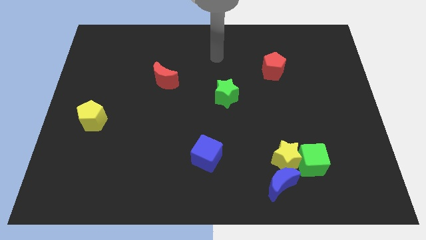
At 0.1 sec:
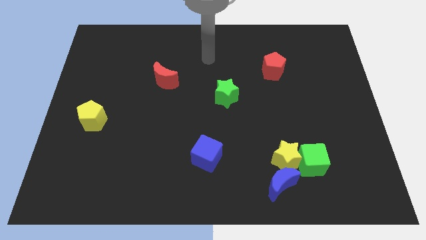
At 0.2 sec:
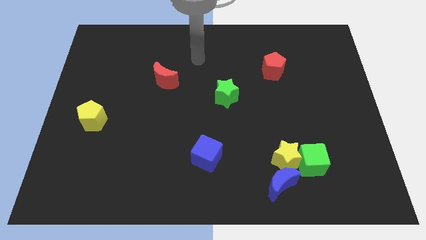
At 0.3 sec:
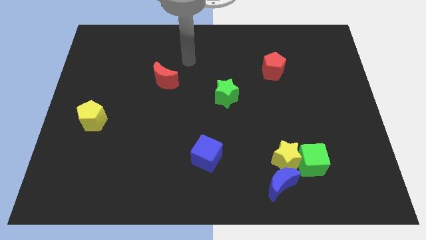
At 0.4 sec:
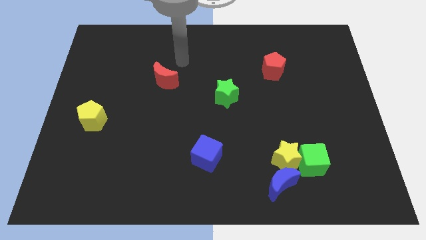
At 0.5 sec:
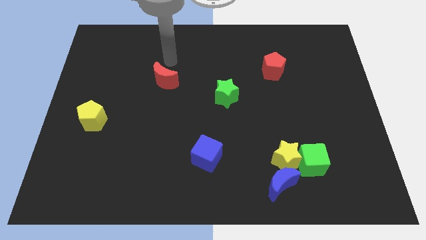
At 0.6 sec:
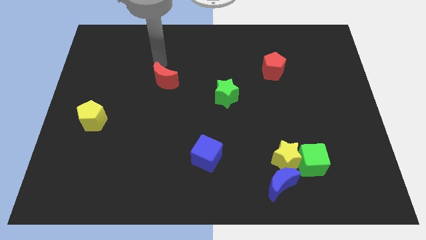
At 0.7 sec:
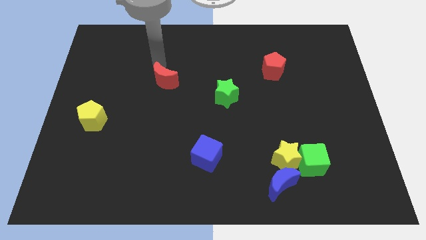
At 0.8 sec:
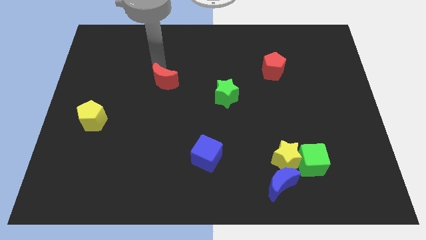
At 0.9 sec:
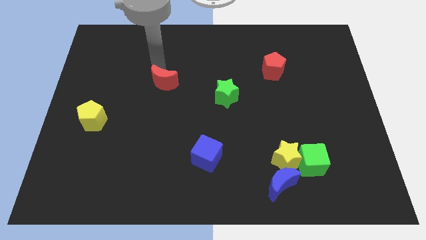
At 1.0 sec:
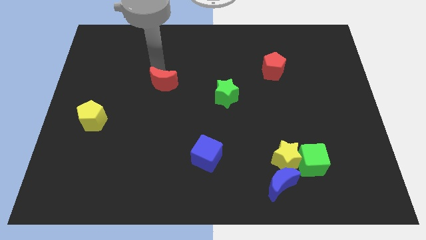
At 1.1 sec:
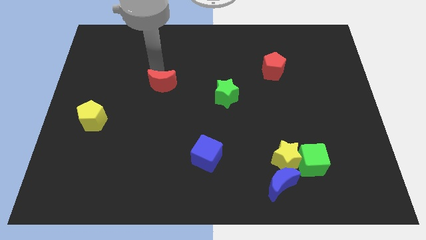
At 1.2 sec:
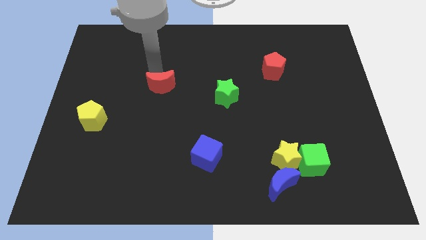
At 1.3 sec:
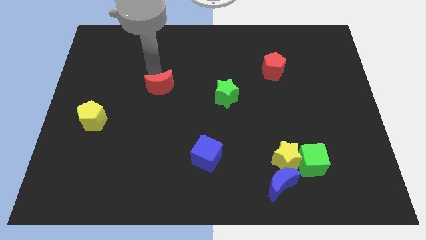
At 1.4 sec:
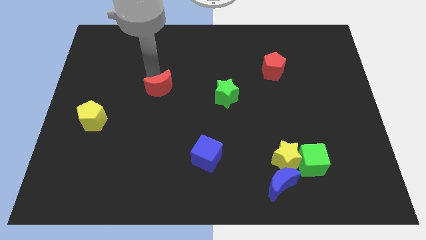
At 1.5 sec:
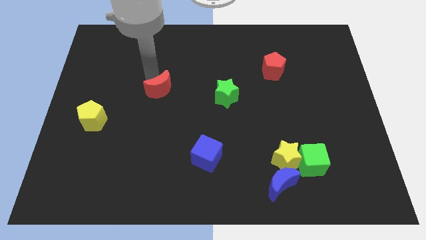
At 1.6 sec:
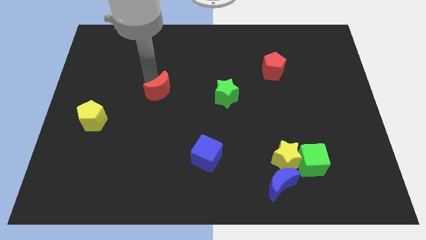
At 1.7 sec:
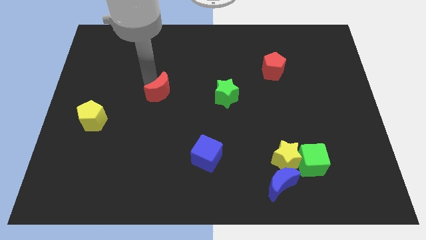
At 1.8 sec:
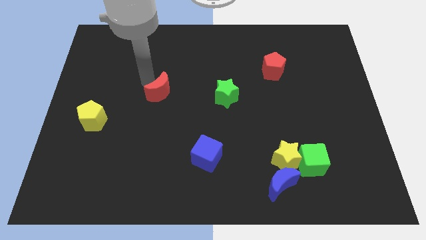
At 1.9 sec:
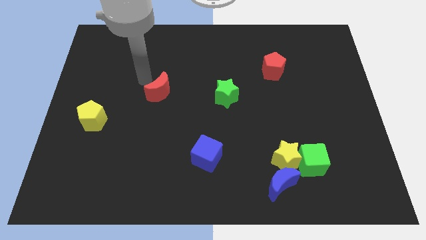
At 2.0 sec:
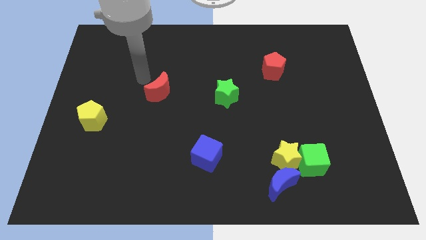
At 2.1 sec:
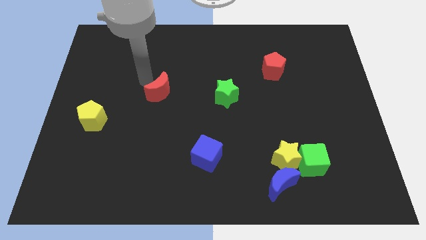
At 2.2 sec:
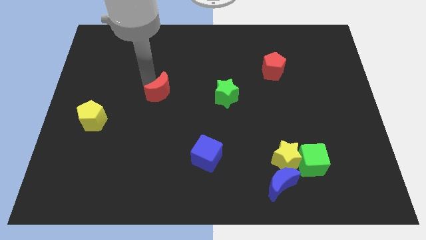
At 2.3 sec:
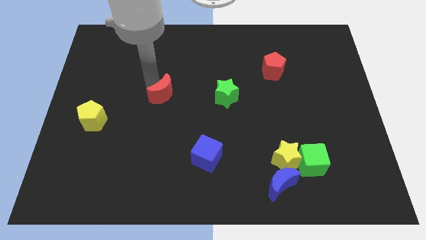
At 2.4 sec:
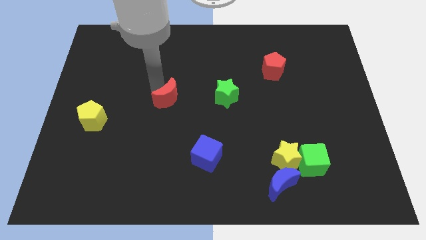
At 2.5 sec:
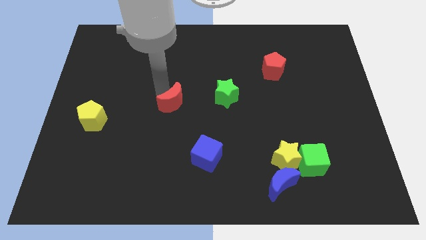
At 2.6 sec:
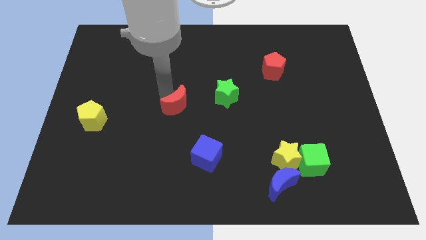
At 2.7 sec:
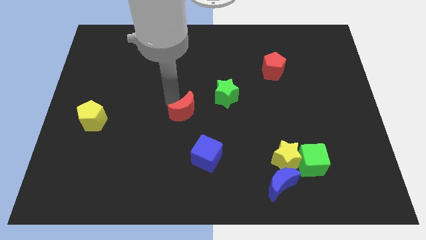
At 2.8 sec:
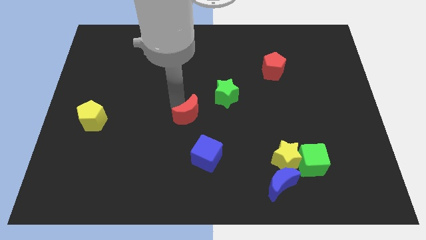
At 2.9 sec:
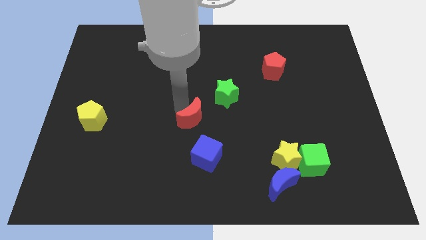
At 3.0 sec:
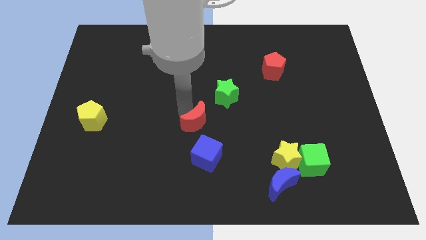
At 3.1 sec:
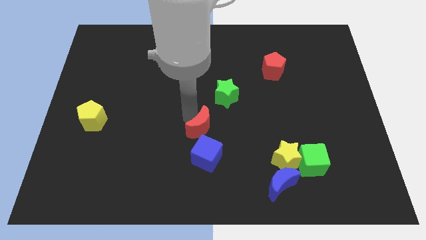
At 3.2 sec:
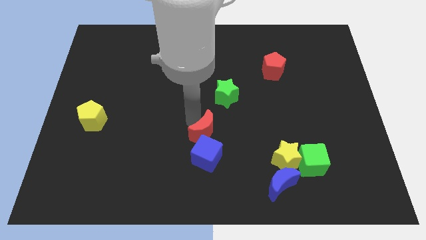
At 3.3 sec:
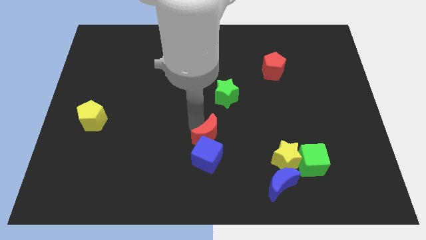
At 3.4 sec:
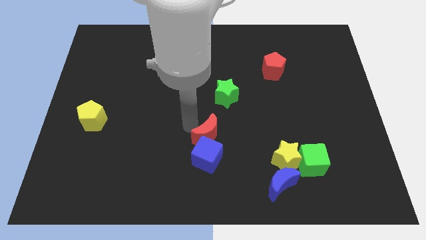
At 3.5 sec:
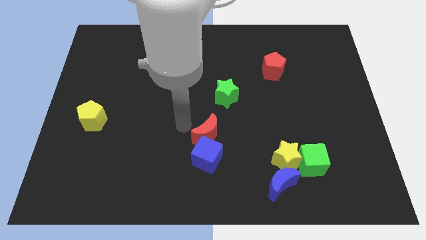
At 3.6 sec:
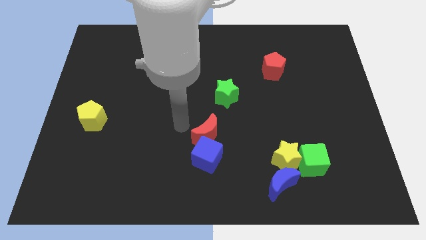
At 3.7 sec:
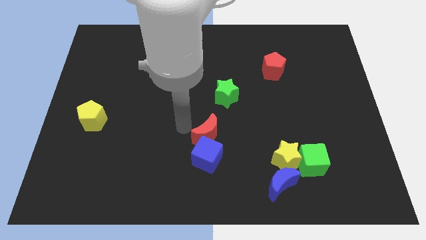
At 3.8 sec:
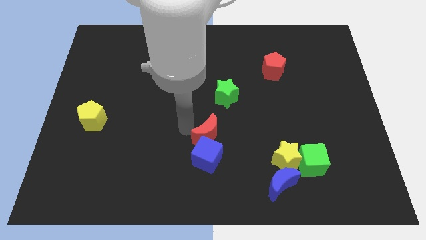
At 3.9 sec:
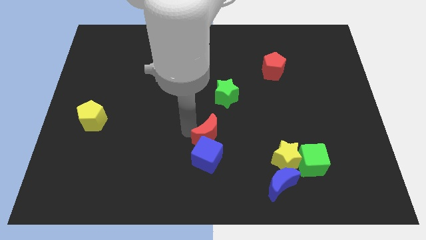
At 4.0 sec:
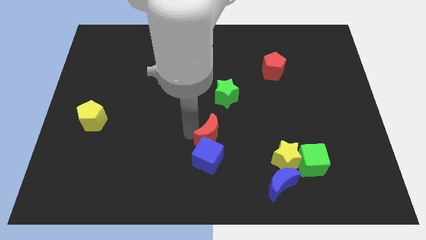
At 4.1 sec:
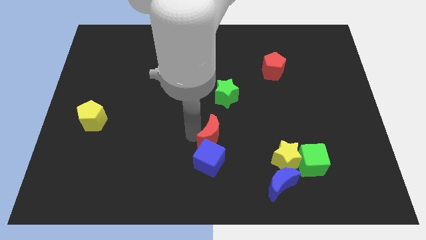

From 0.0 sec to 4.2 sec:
move the red moon down and then right

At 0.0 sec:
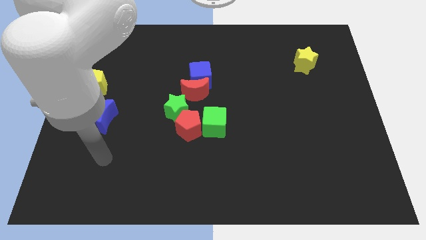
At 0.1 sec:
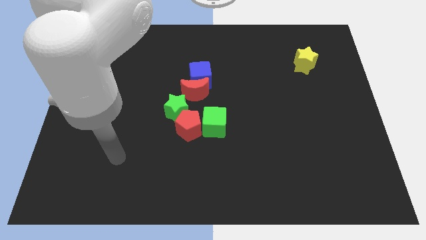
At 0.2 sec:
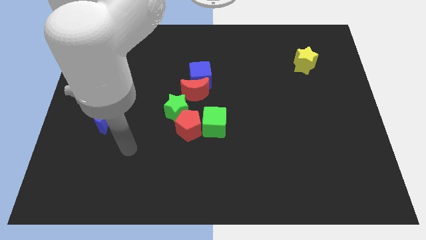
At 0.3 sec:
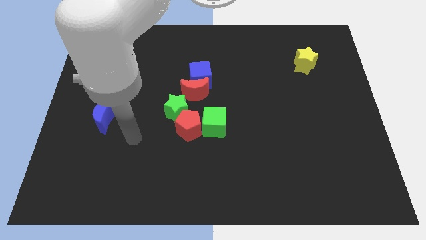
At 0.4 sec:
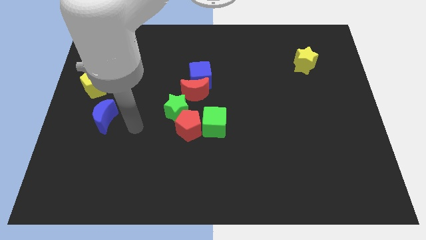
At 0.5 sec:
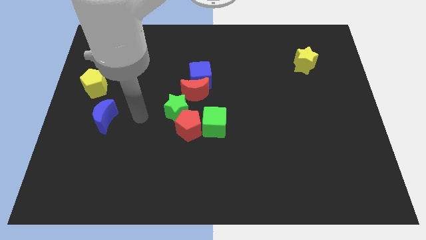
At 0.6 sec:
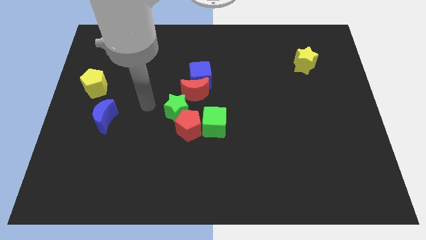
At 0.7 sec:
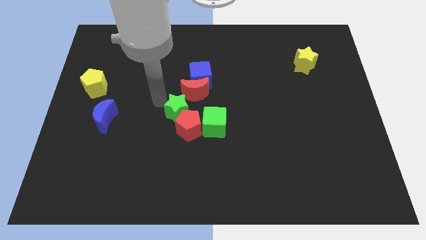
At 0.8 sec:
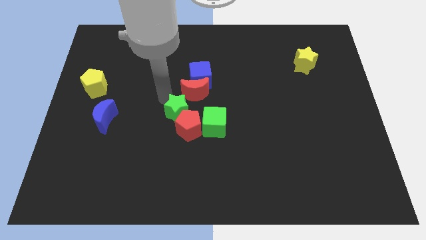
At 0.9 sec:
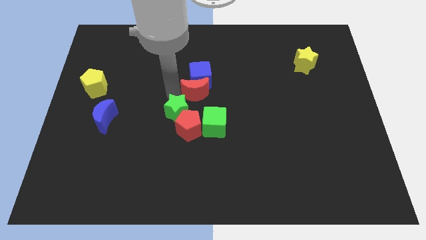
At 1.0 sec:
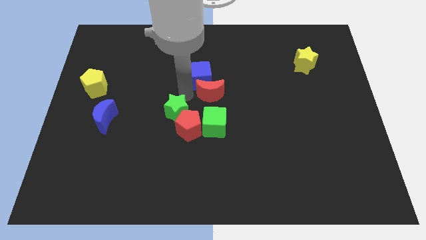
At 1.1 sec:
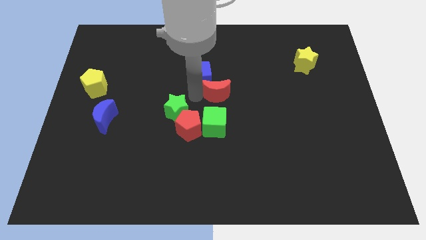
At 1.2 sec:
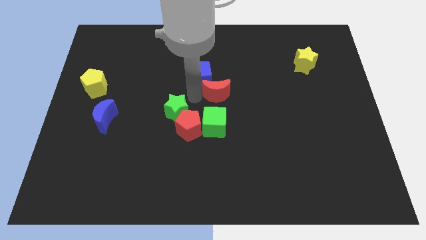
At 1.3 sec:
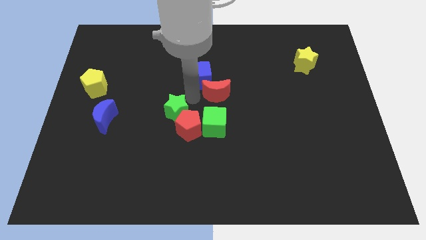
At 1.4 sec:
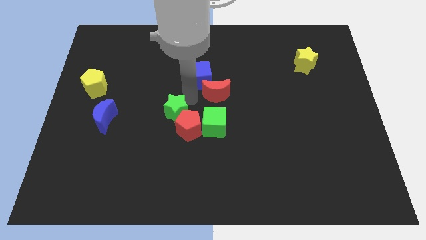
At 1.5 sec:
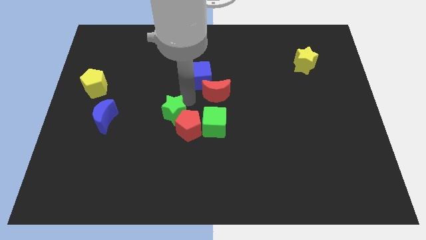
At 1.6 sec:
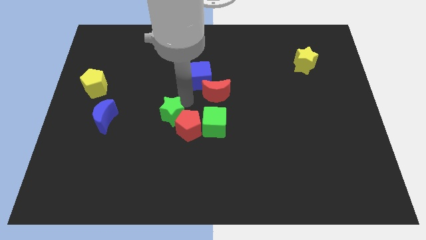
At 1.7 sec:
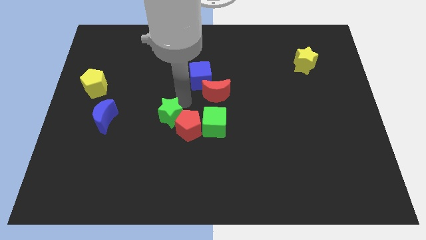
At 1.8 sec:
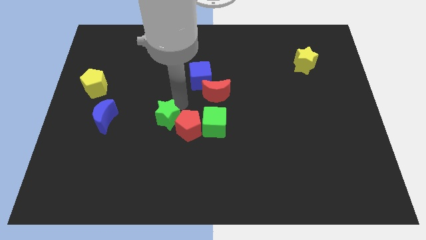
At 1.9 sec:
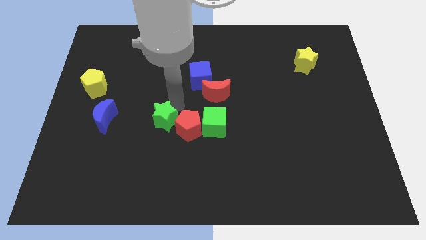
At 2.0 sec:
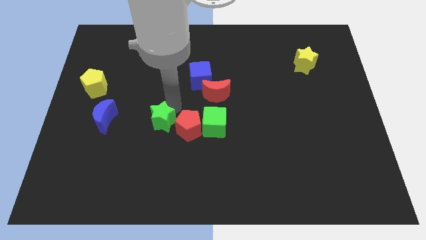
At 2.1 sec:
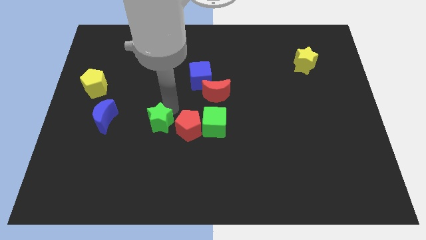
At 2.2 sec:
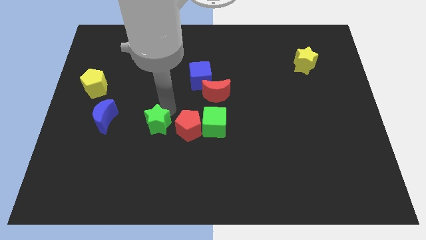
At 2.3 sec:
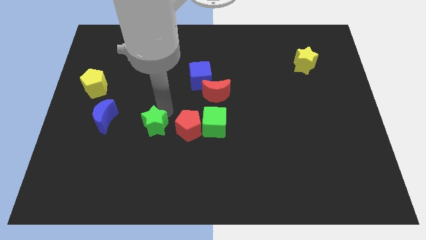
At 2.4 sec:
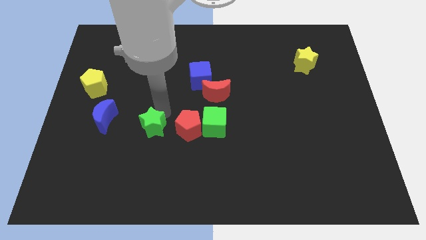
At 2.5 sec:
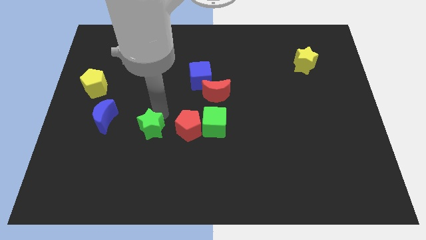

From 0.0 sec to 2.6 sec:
push the green star a bit diagonally down and left

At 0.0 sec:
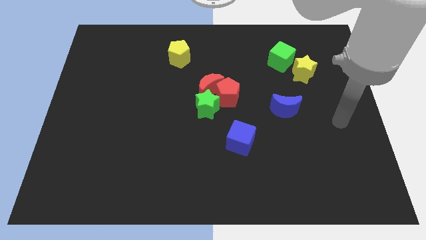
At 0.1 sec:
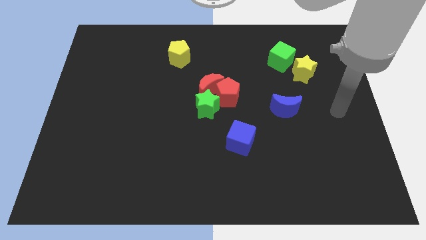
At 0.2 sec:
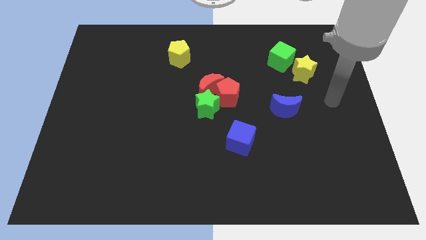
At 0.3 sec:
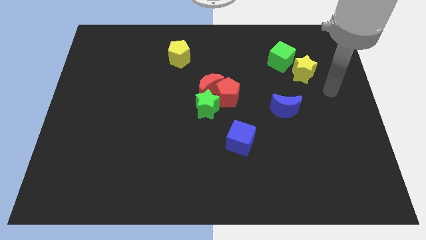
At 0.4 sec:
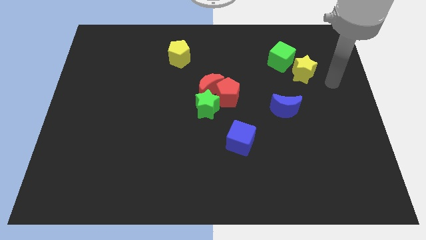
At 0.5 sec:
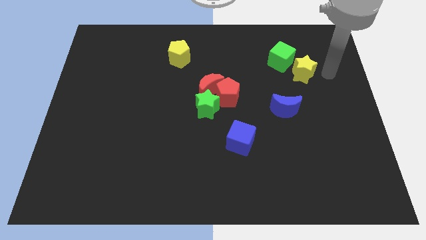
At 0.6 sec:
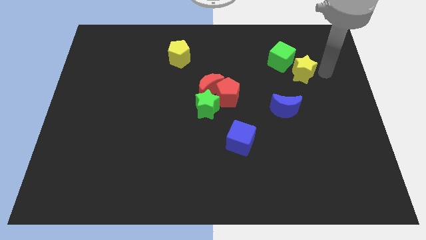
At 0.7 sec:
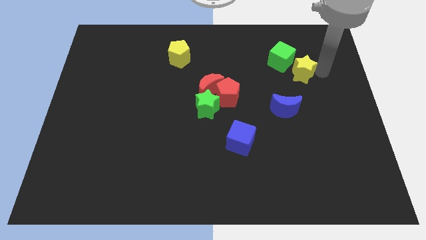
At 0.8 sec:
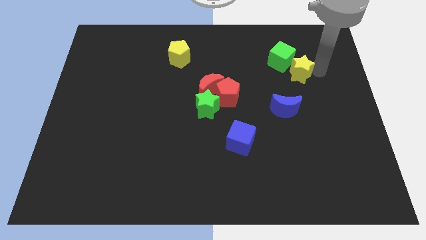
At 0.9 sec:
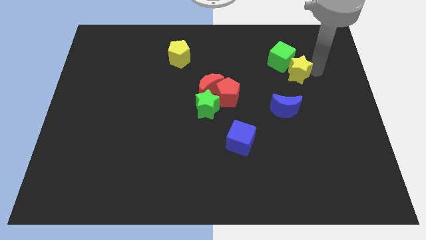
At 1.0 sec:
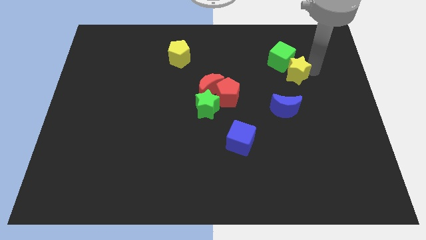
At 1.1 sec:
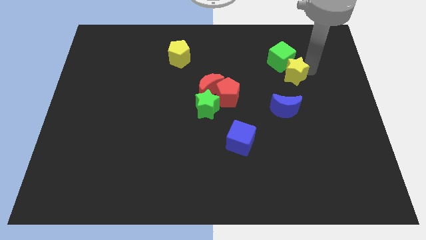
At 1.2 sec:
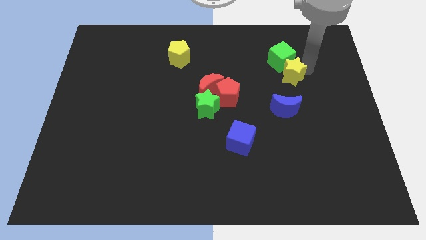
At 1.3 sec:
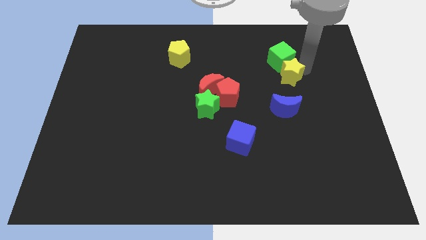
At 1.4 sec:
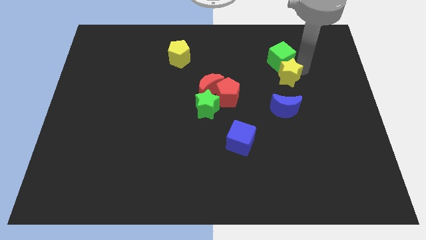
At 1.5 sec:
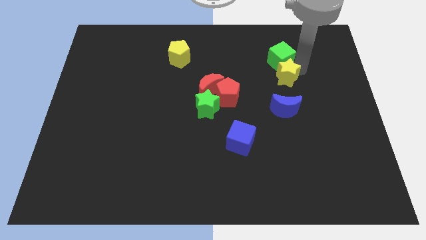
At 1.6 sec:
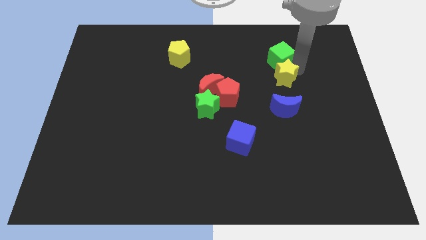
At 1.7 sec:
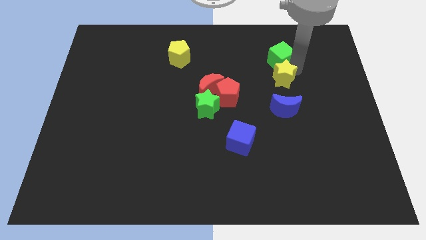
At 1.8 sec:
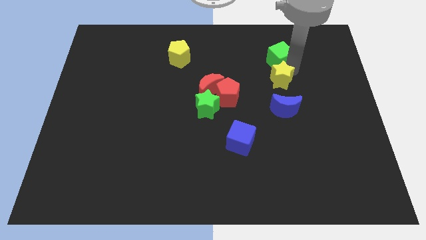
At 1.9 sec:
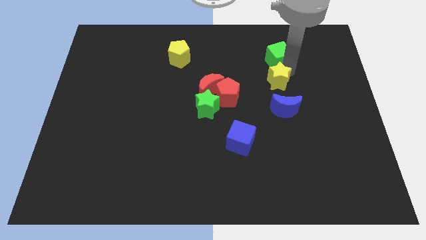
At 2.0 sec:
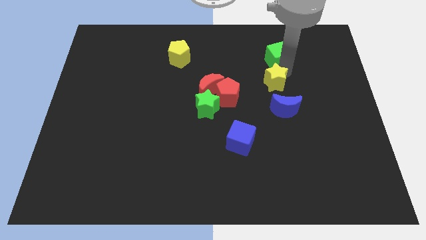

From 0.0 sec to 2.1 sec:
slightly move the yellow star left
